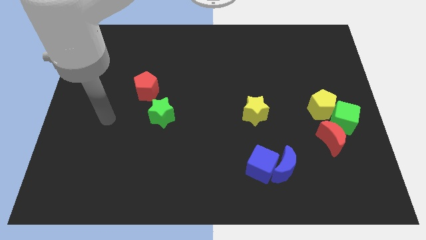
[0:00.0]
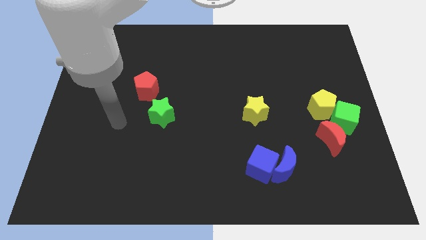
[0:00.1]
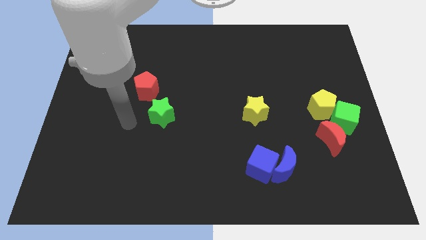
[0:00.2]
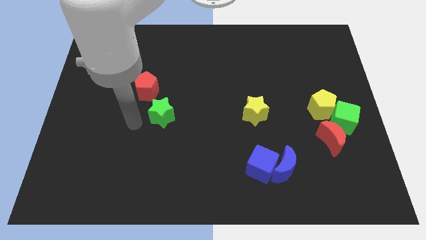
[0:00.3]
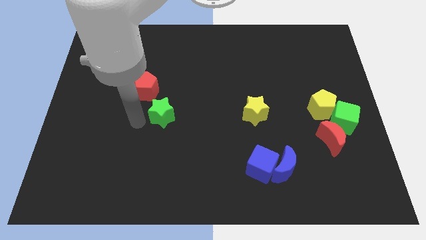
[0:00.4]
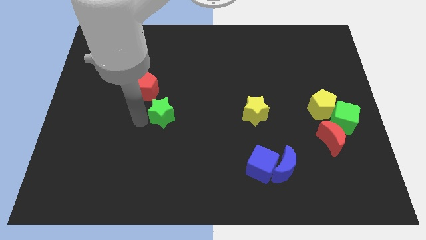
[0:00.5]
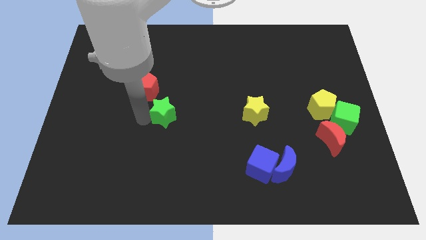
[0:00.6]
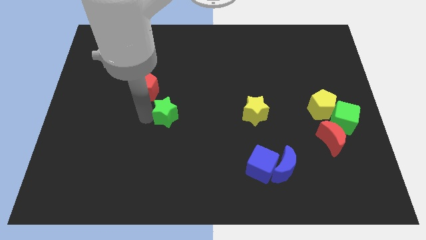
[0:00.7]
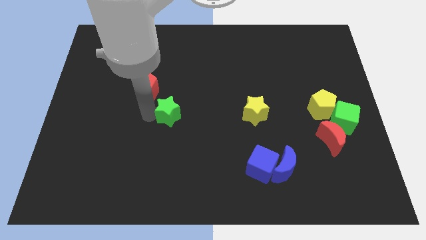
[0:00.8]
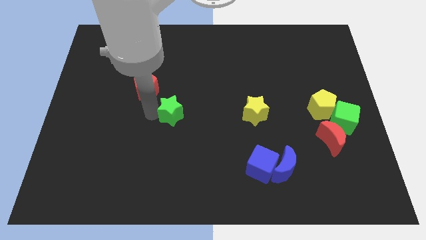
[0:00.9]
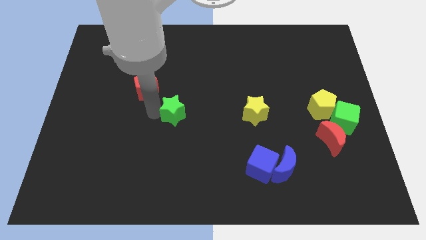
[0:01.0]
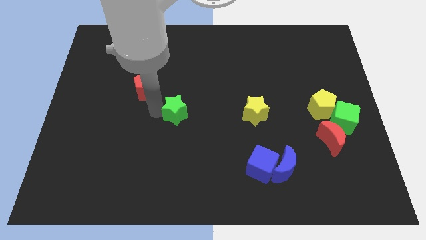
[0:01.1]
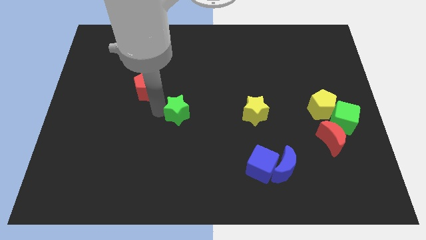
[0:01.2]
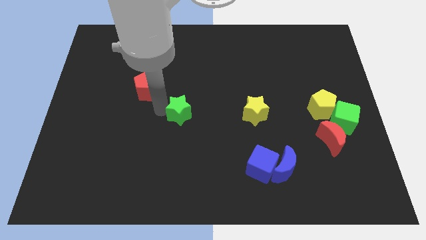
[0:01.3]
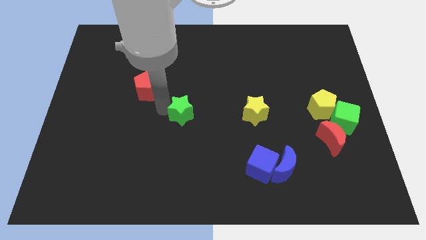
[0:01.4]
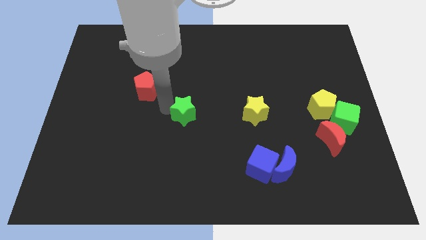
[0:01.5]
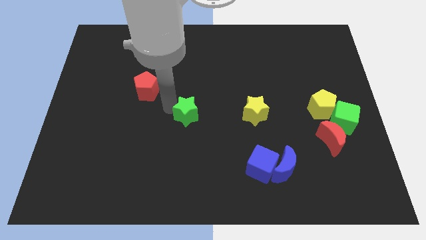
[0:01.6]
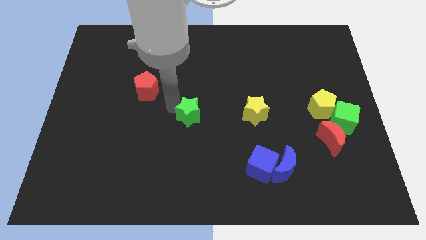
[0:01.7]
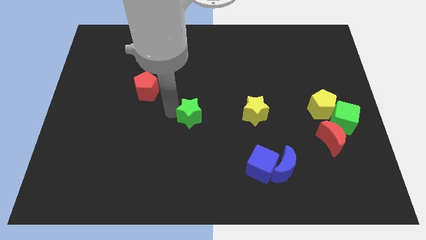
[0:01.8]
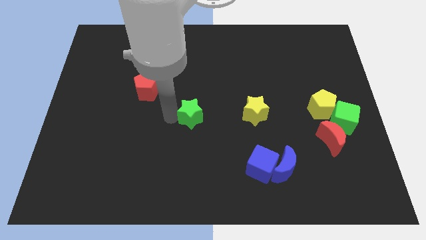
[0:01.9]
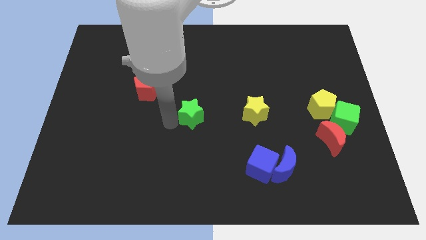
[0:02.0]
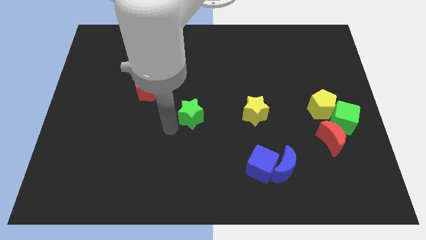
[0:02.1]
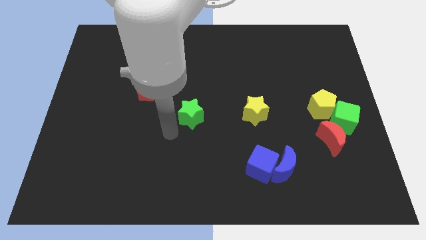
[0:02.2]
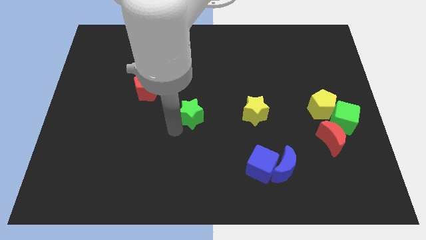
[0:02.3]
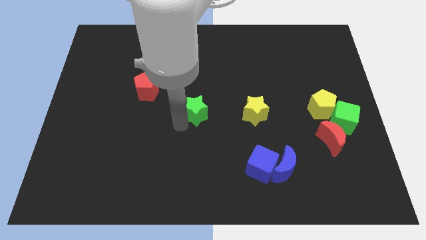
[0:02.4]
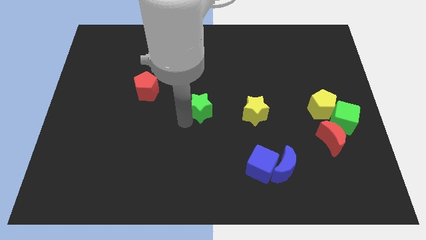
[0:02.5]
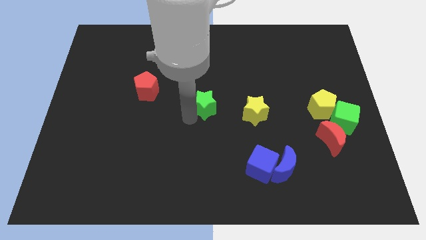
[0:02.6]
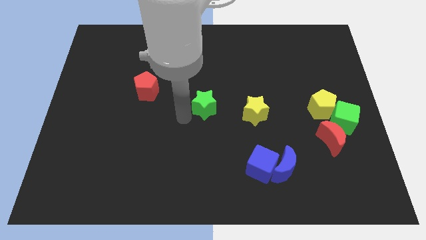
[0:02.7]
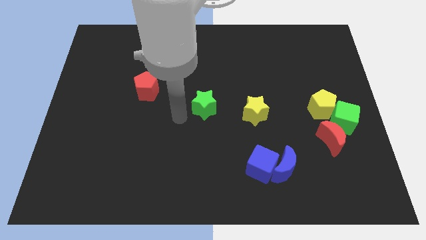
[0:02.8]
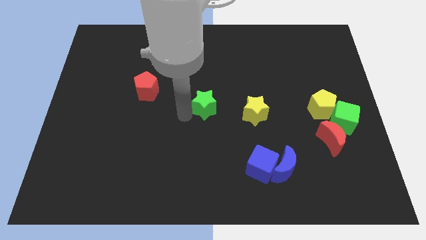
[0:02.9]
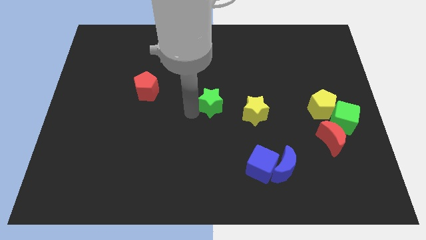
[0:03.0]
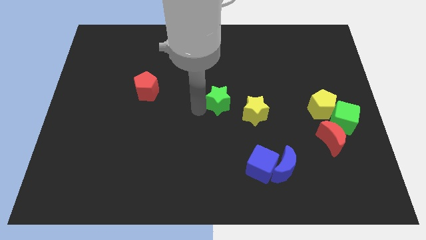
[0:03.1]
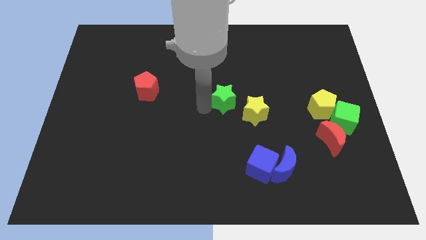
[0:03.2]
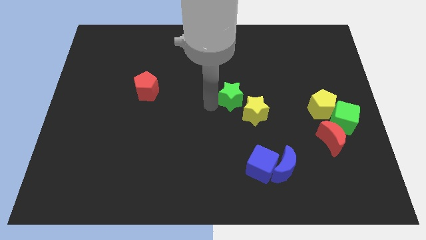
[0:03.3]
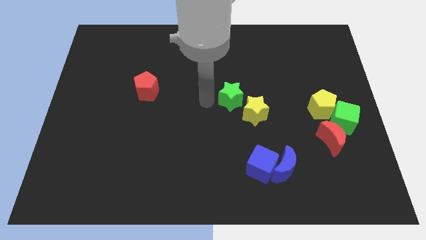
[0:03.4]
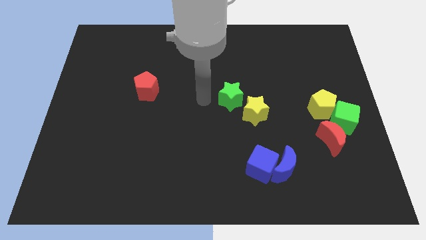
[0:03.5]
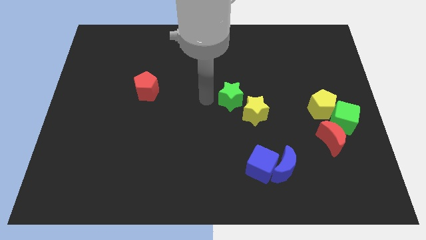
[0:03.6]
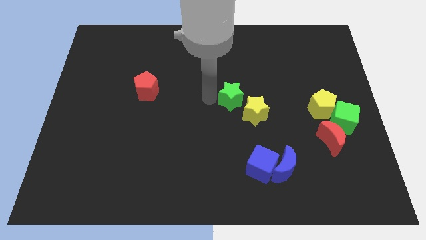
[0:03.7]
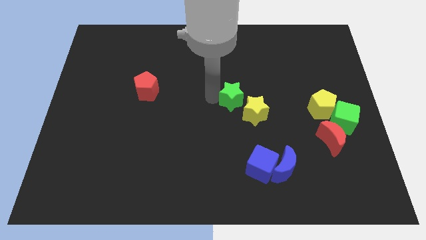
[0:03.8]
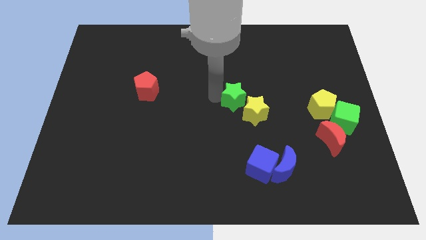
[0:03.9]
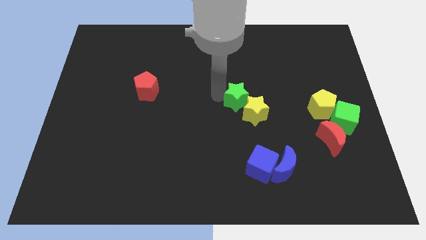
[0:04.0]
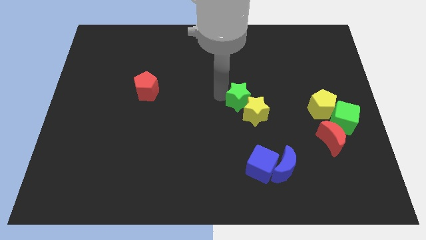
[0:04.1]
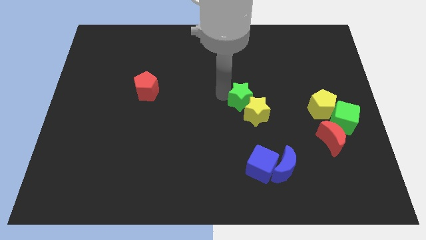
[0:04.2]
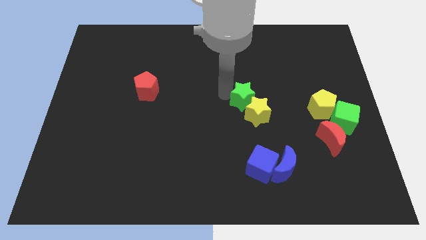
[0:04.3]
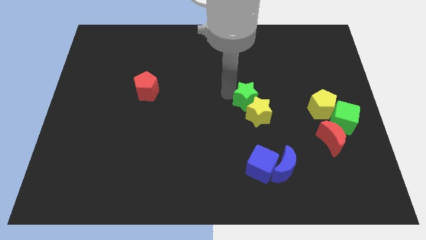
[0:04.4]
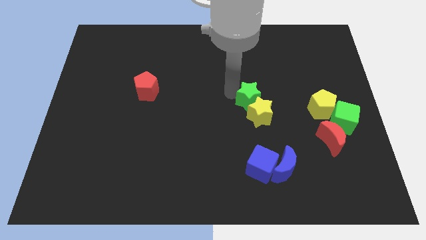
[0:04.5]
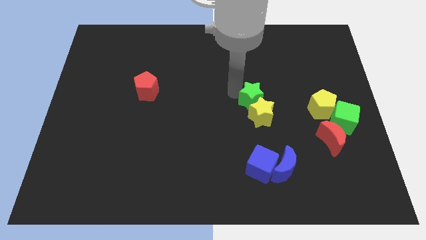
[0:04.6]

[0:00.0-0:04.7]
push the green star to the right

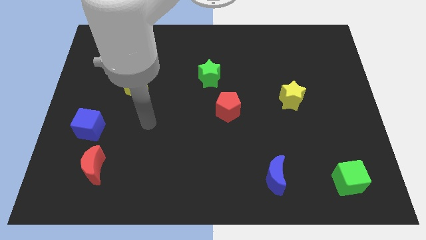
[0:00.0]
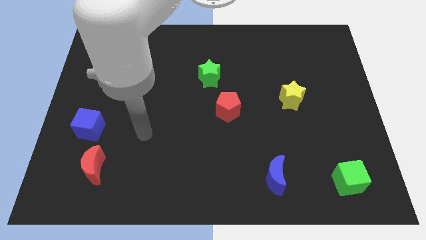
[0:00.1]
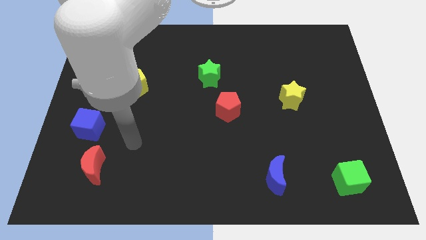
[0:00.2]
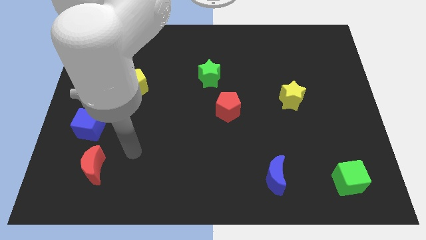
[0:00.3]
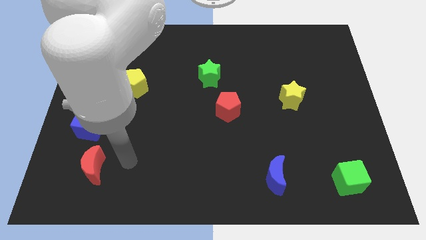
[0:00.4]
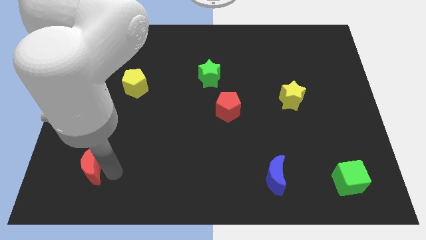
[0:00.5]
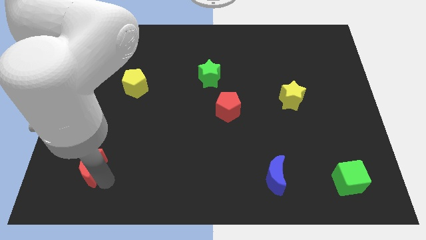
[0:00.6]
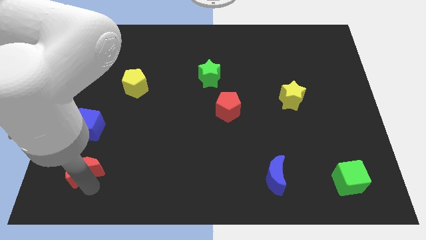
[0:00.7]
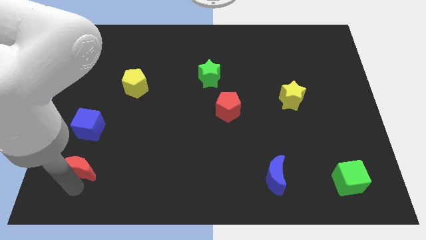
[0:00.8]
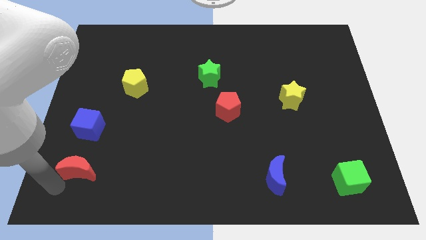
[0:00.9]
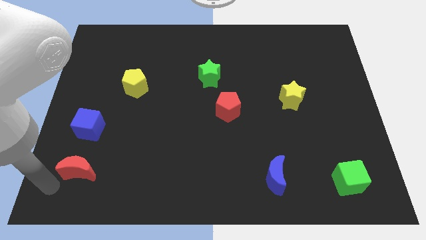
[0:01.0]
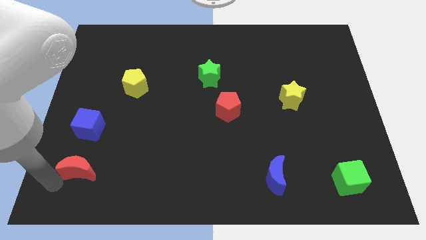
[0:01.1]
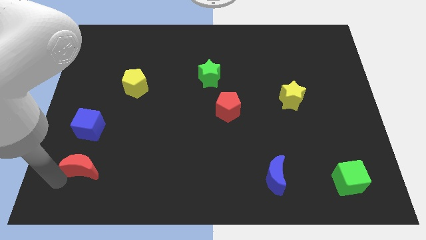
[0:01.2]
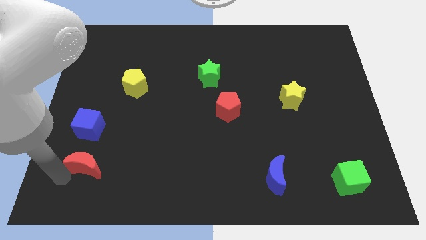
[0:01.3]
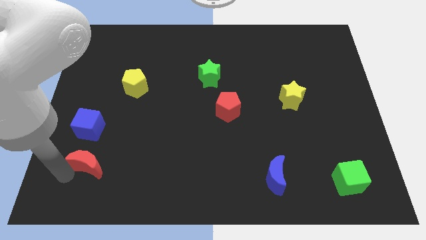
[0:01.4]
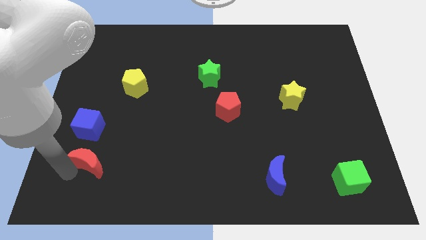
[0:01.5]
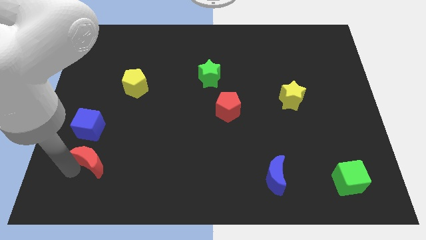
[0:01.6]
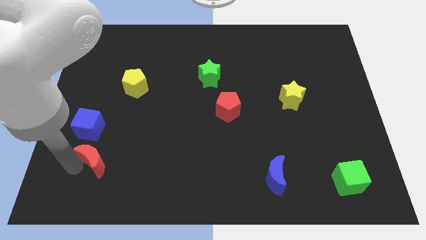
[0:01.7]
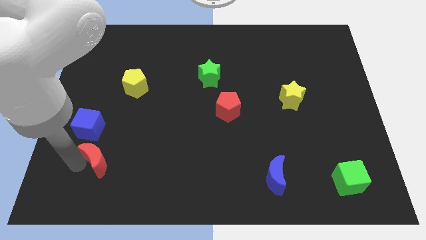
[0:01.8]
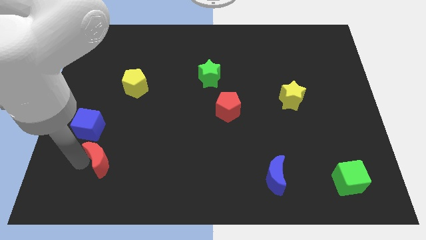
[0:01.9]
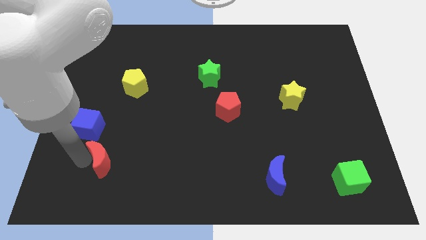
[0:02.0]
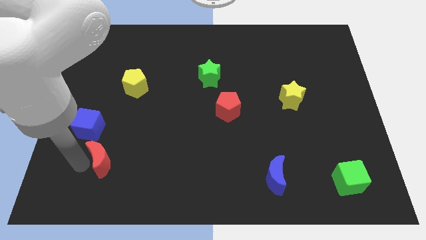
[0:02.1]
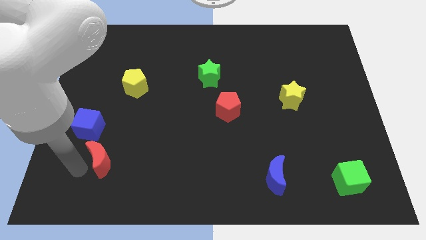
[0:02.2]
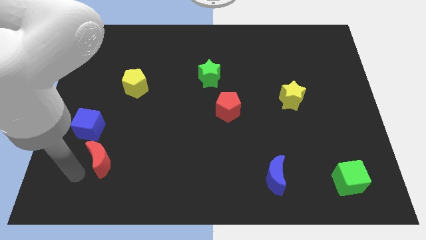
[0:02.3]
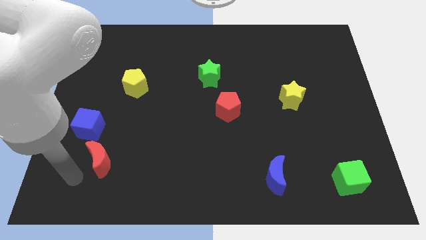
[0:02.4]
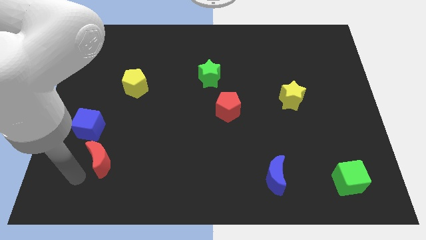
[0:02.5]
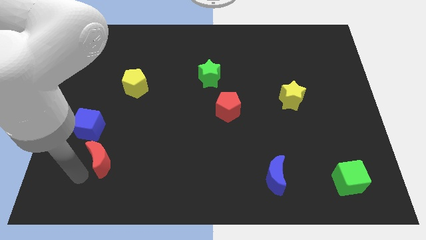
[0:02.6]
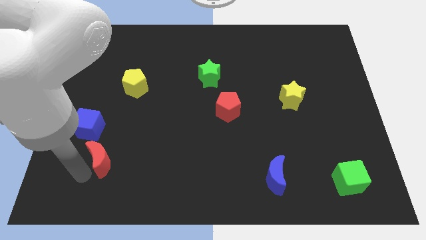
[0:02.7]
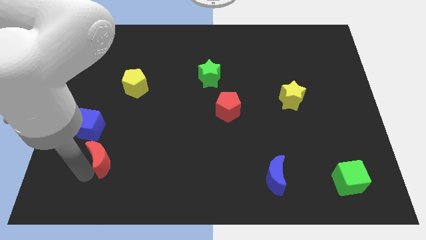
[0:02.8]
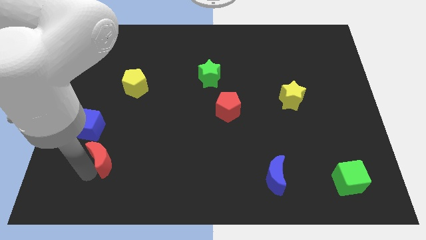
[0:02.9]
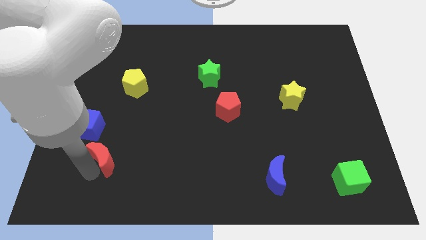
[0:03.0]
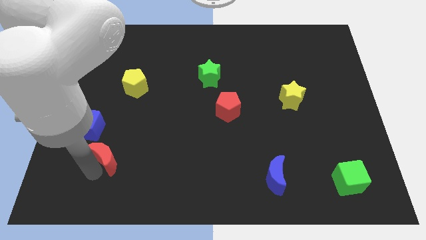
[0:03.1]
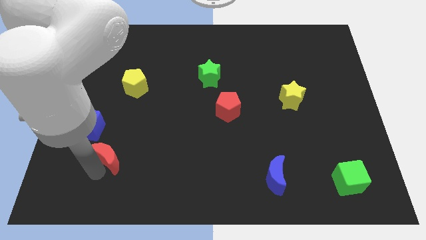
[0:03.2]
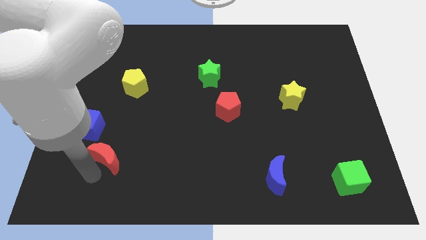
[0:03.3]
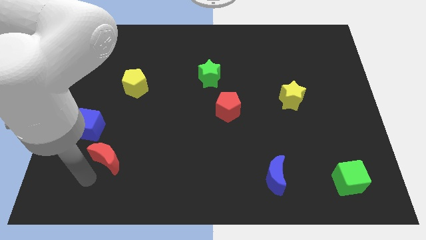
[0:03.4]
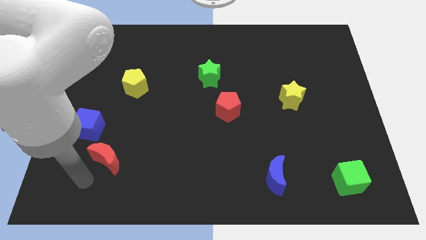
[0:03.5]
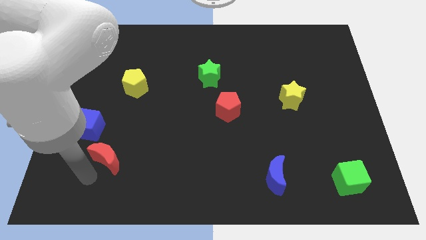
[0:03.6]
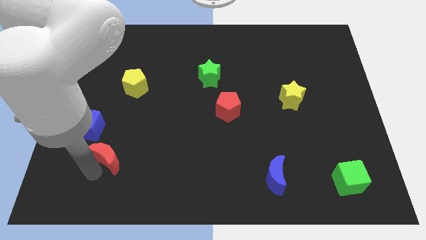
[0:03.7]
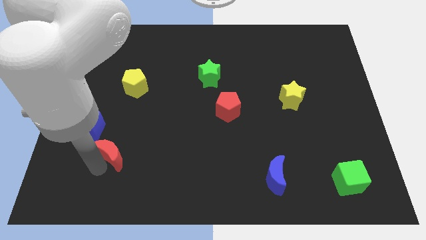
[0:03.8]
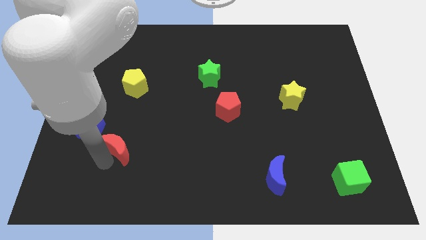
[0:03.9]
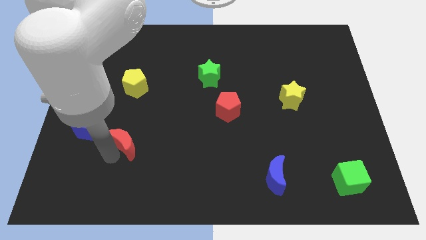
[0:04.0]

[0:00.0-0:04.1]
slightly push the red moon diagonally up and right
